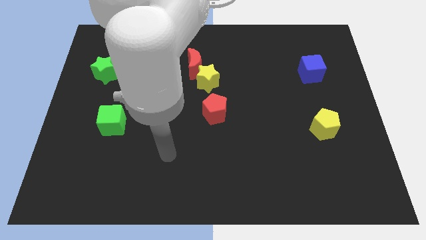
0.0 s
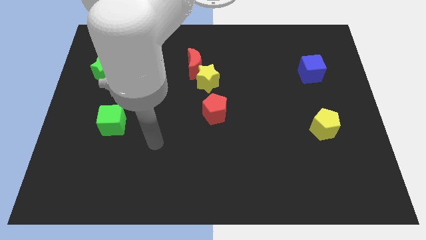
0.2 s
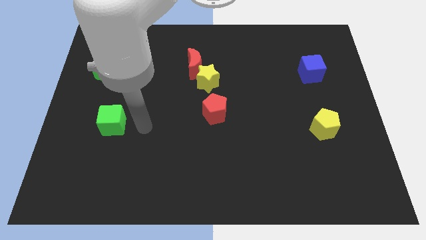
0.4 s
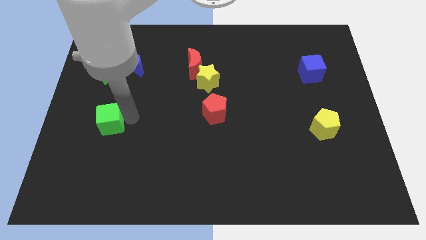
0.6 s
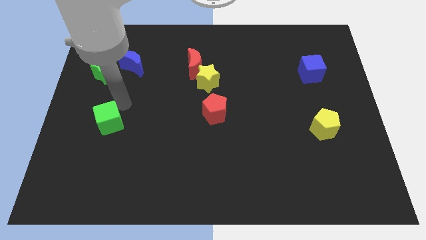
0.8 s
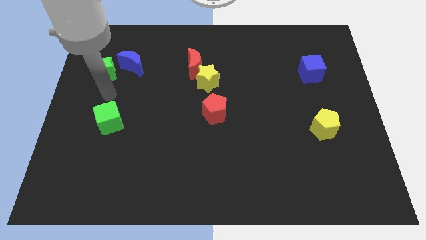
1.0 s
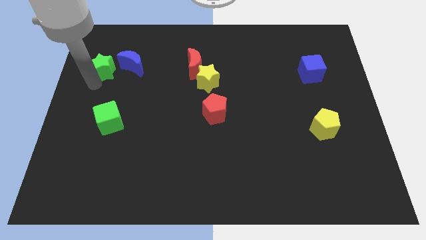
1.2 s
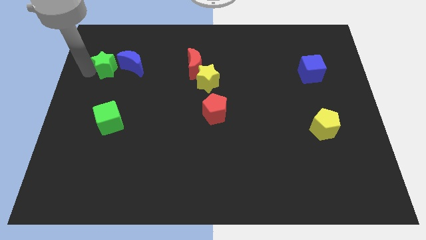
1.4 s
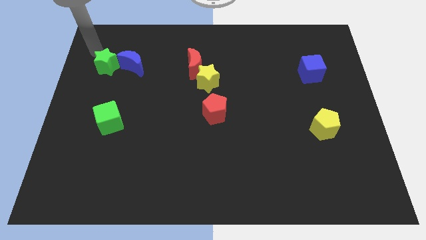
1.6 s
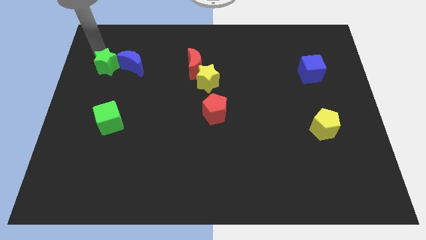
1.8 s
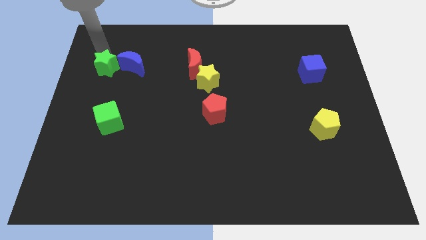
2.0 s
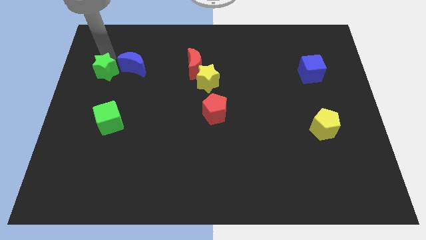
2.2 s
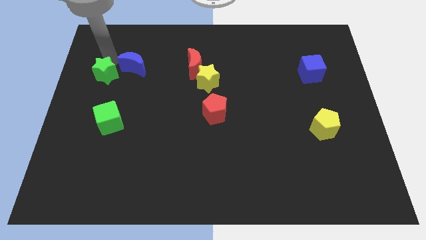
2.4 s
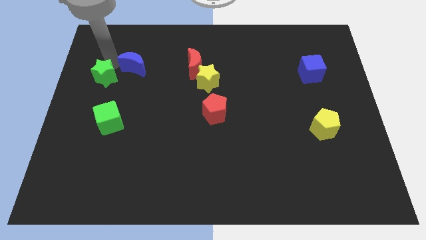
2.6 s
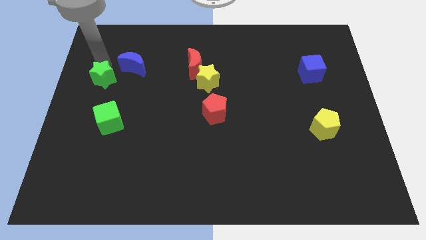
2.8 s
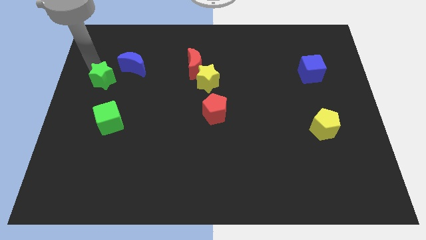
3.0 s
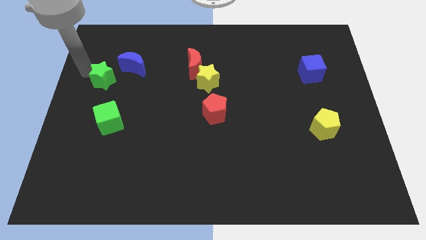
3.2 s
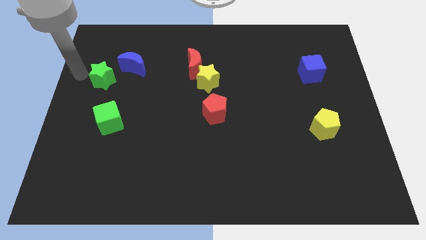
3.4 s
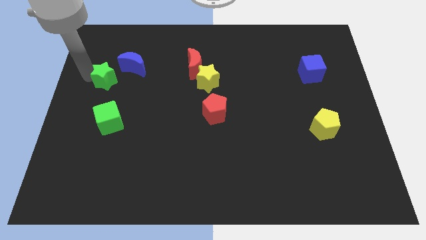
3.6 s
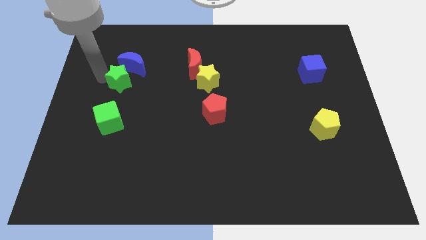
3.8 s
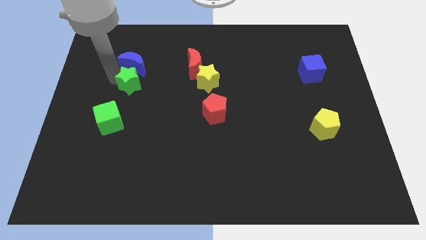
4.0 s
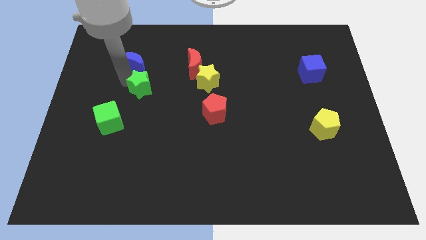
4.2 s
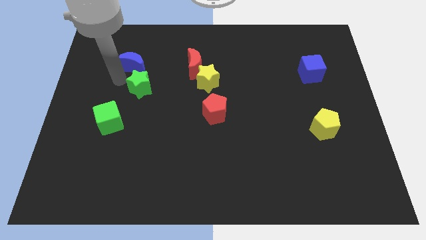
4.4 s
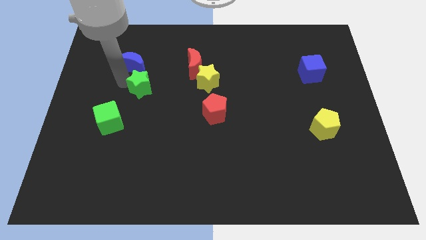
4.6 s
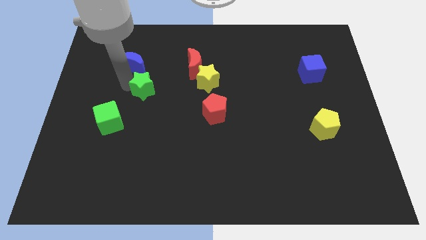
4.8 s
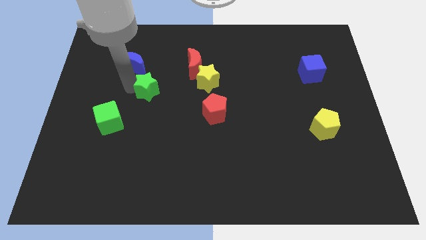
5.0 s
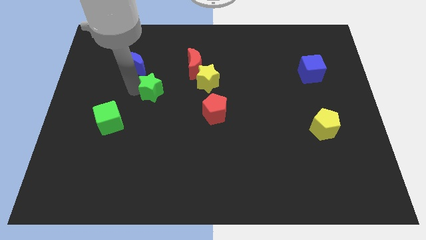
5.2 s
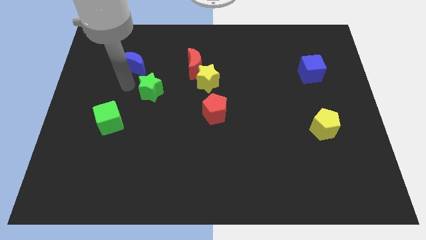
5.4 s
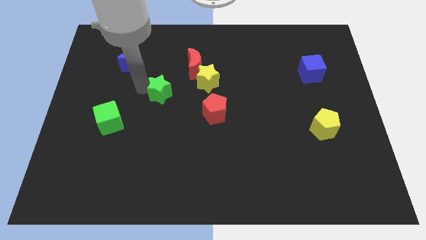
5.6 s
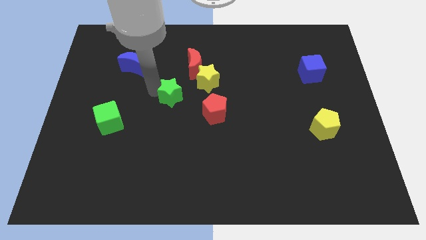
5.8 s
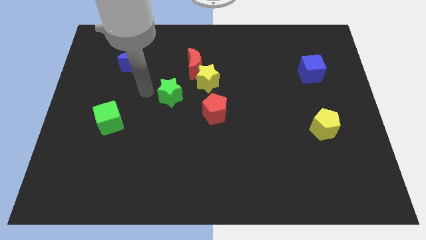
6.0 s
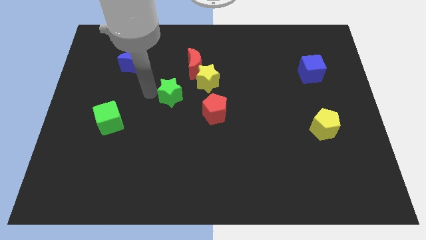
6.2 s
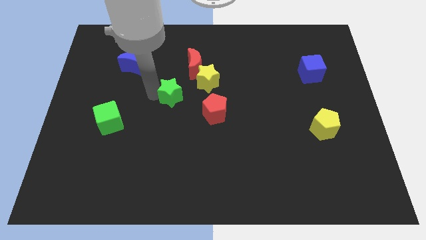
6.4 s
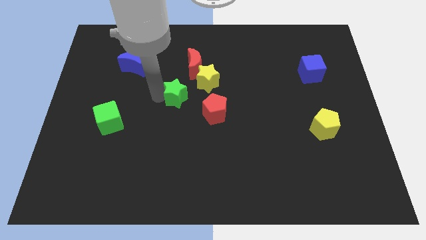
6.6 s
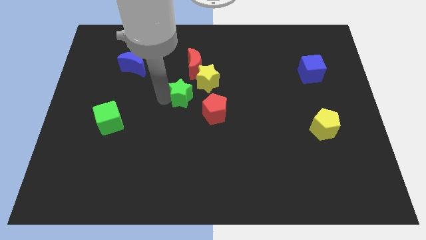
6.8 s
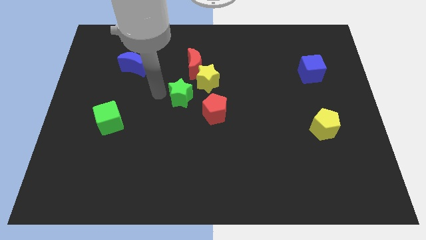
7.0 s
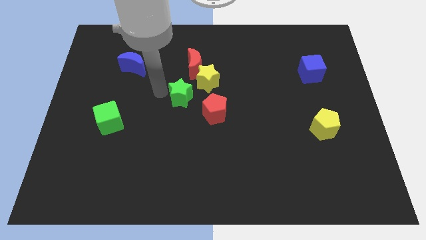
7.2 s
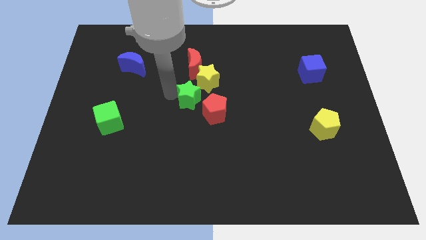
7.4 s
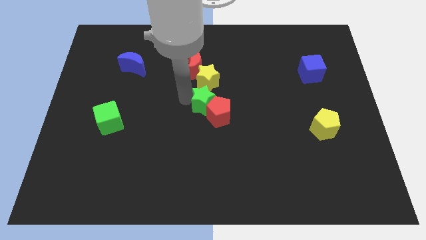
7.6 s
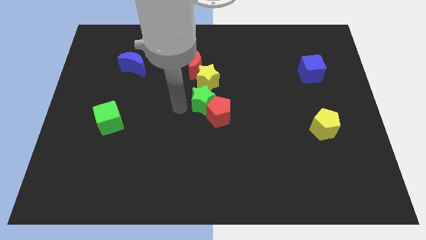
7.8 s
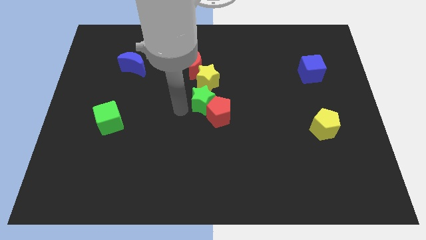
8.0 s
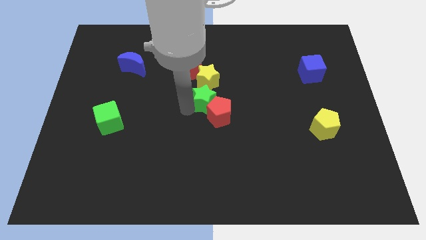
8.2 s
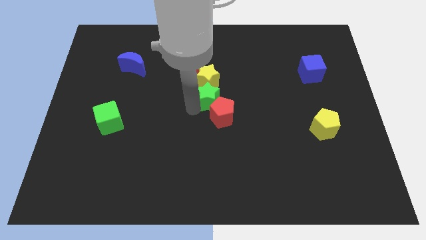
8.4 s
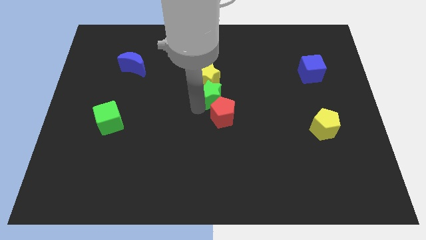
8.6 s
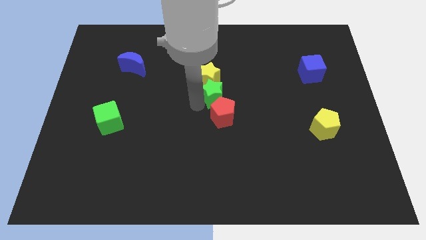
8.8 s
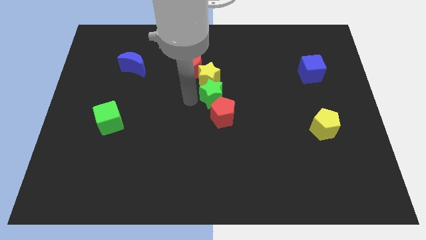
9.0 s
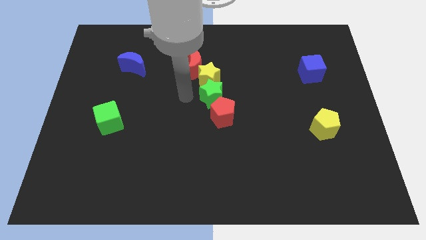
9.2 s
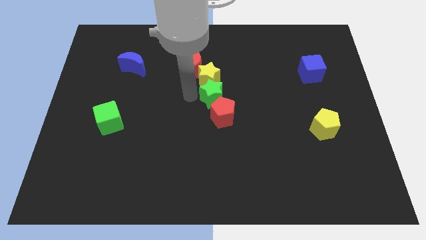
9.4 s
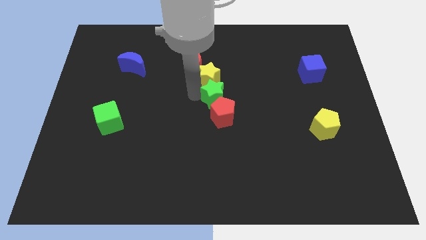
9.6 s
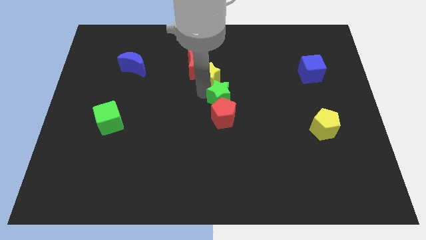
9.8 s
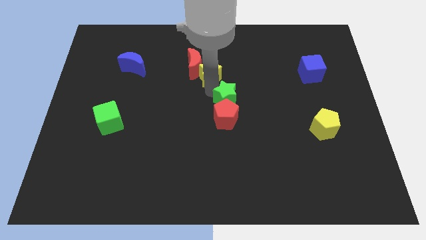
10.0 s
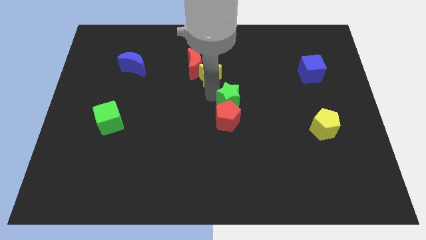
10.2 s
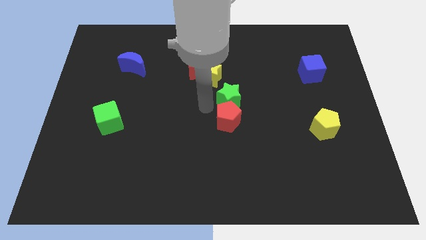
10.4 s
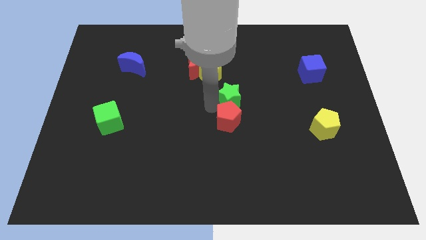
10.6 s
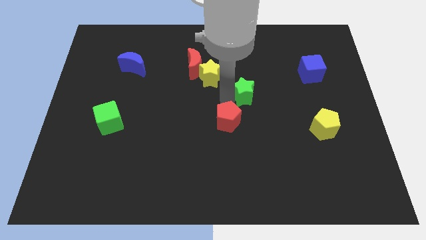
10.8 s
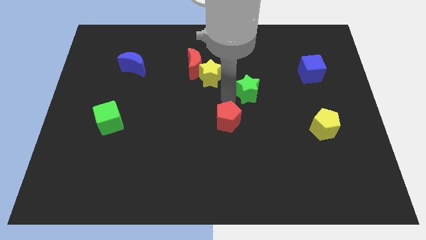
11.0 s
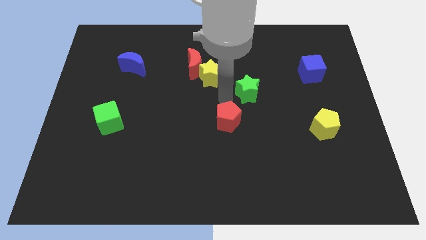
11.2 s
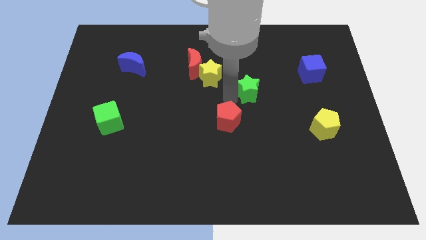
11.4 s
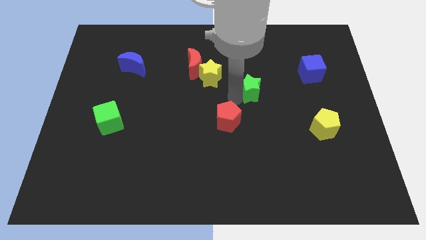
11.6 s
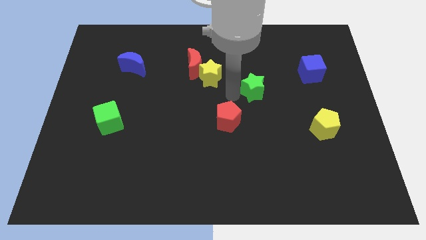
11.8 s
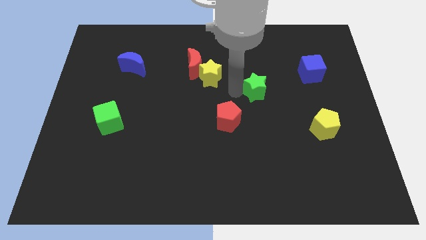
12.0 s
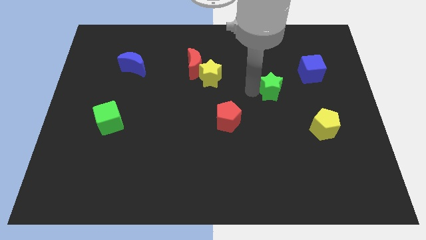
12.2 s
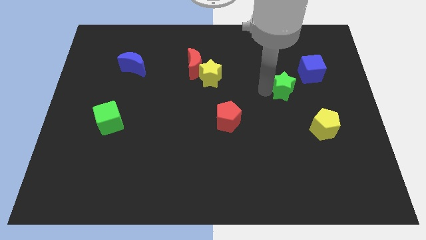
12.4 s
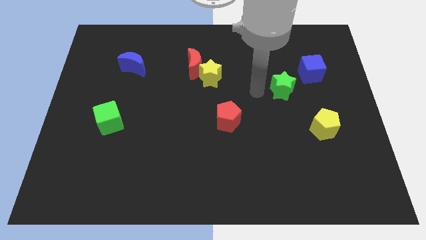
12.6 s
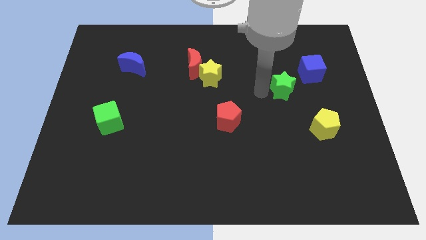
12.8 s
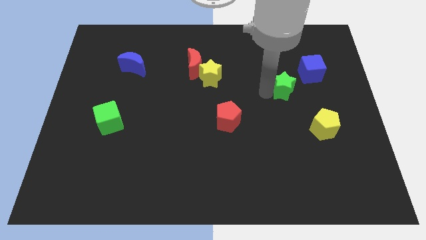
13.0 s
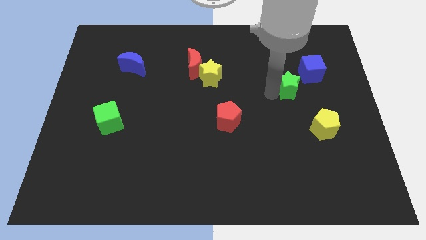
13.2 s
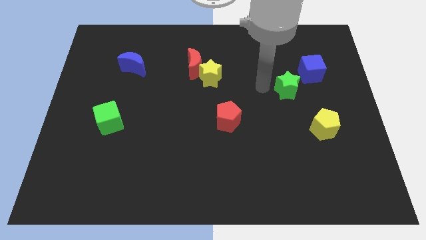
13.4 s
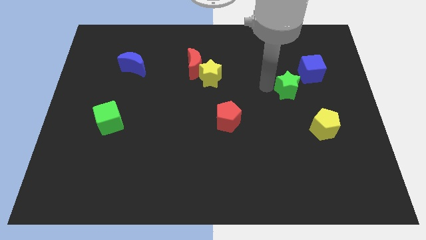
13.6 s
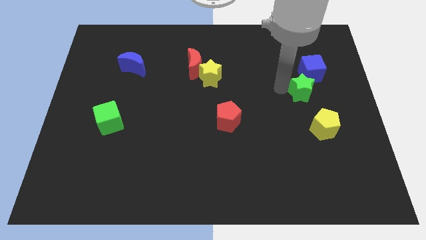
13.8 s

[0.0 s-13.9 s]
put the green star to the top side of the yellow pentagon

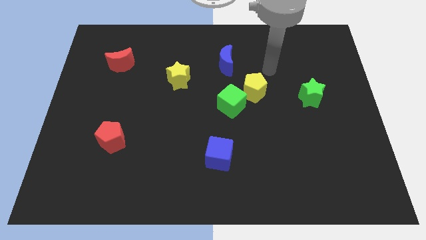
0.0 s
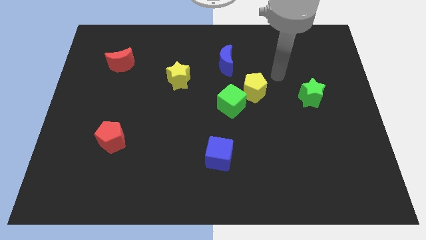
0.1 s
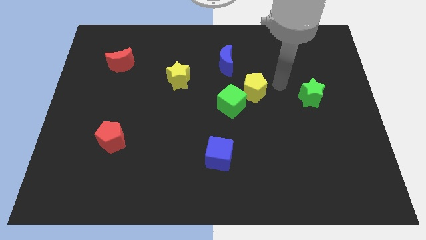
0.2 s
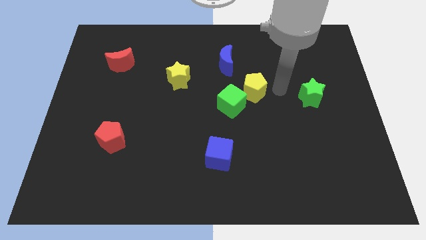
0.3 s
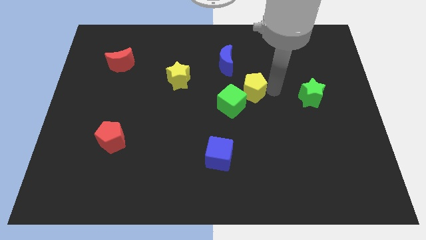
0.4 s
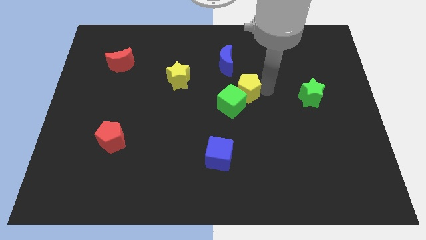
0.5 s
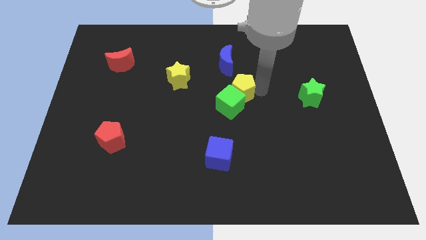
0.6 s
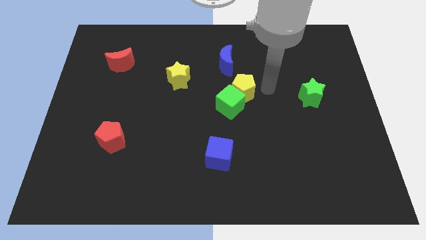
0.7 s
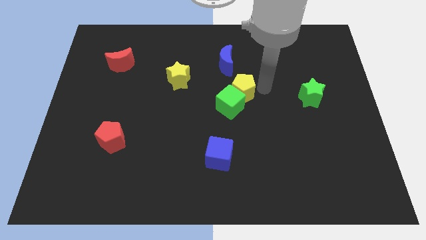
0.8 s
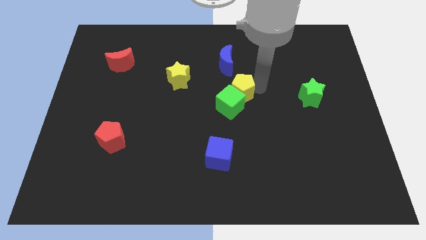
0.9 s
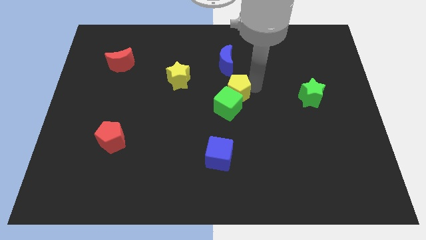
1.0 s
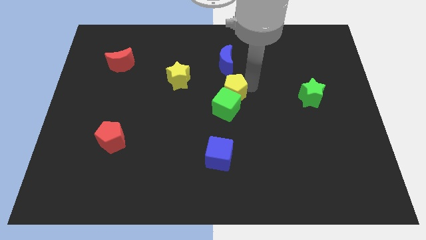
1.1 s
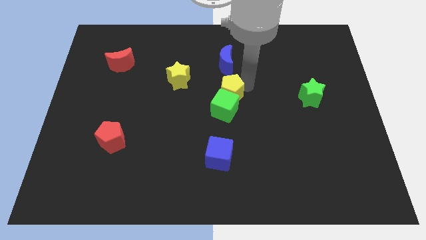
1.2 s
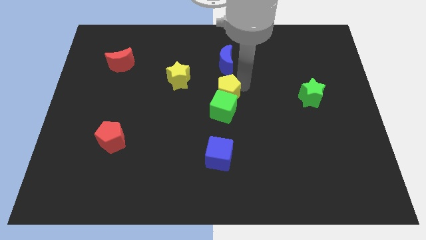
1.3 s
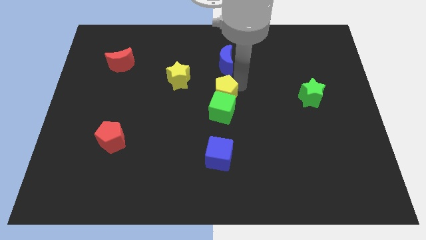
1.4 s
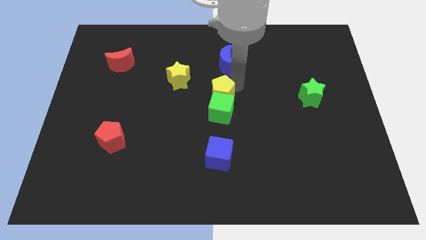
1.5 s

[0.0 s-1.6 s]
put the yellow pentagon to the bottom right of the yellow star
